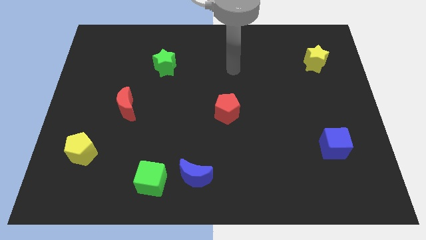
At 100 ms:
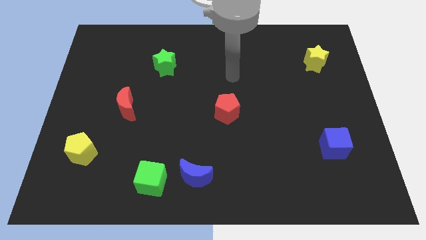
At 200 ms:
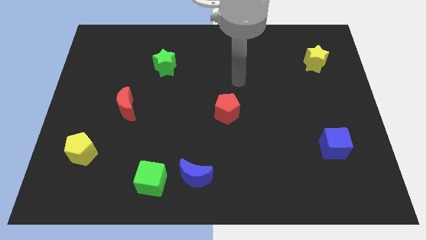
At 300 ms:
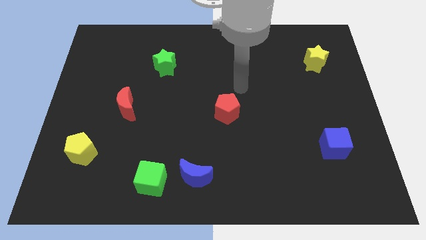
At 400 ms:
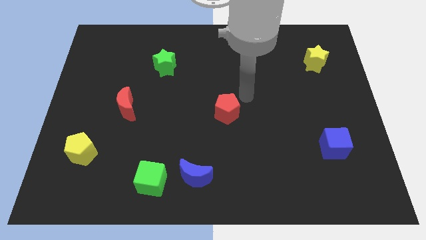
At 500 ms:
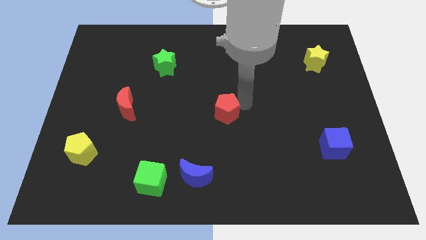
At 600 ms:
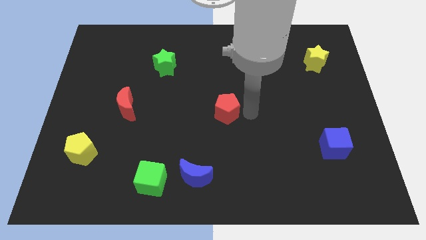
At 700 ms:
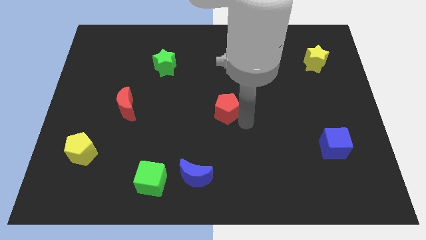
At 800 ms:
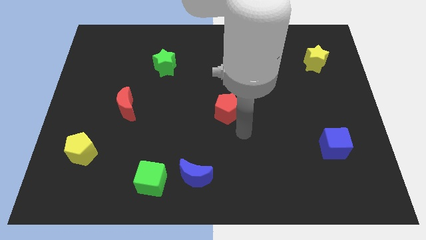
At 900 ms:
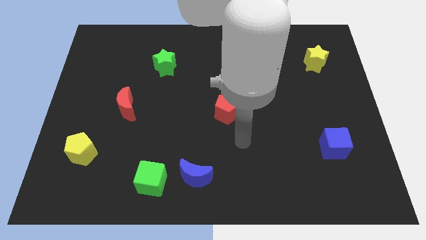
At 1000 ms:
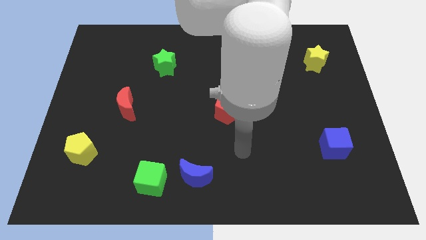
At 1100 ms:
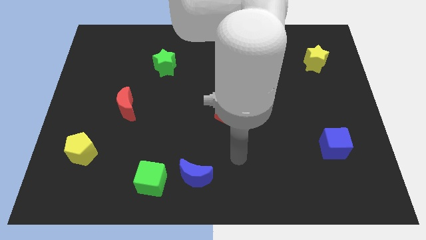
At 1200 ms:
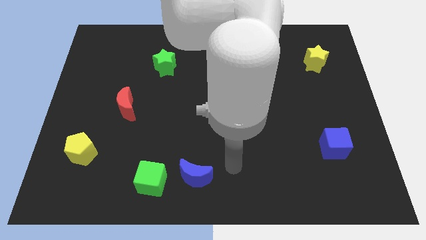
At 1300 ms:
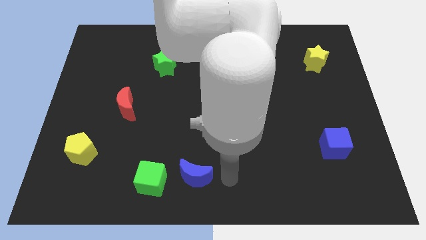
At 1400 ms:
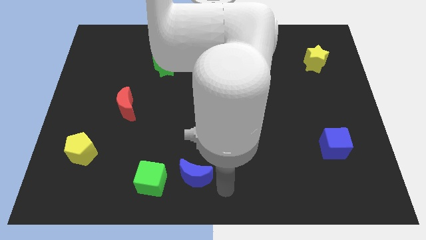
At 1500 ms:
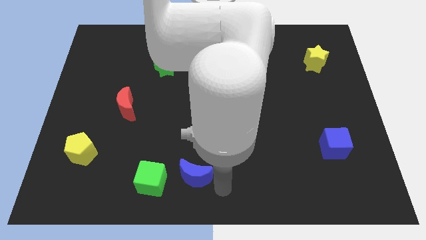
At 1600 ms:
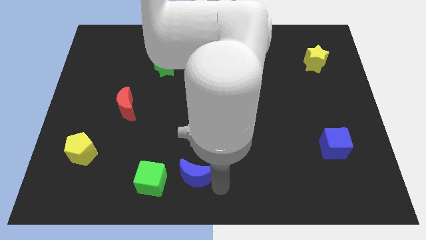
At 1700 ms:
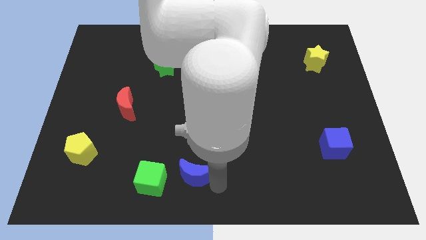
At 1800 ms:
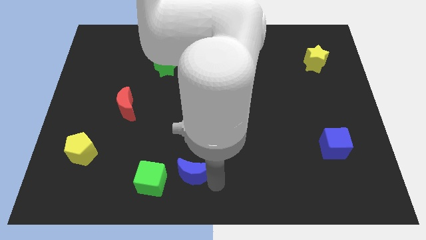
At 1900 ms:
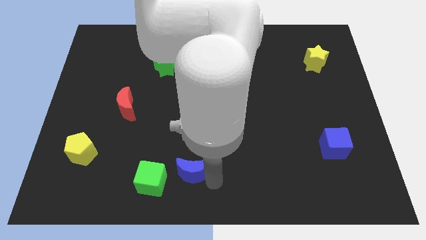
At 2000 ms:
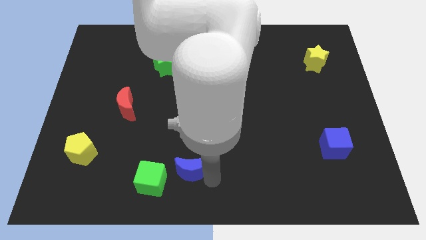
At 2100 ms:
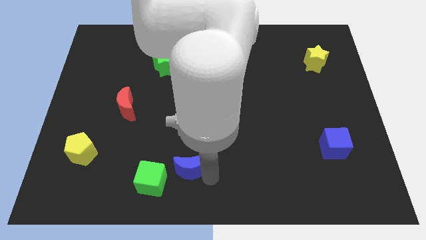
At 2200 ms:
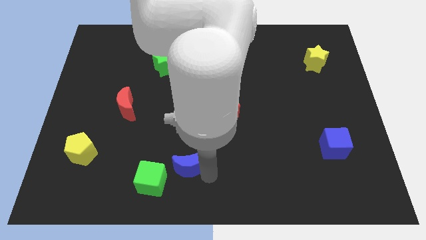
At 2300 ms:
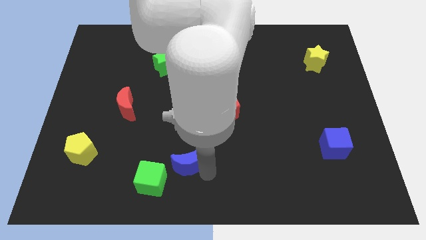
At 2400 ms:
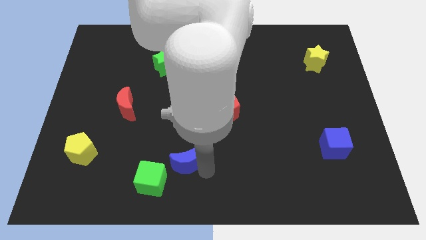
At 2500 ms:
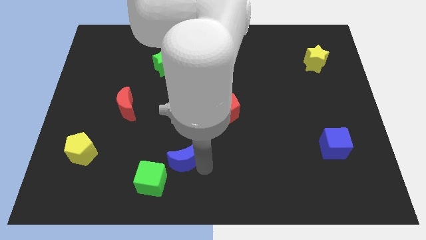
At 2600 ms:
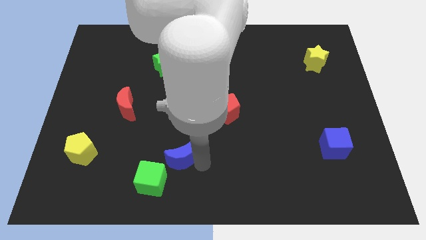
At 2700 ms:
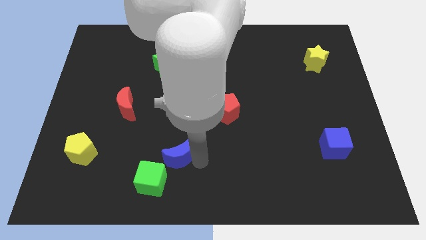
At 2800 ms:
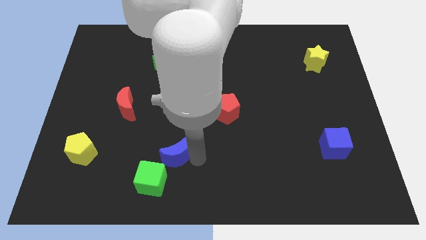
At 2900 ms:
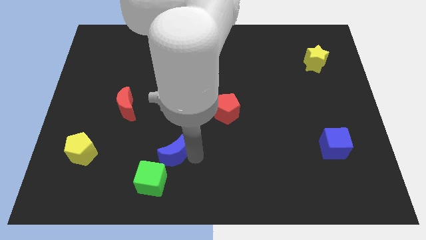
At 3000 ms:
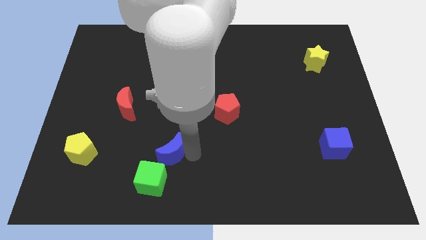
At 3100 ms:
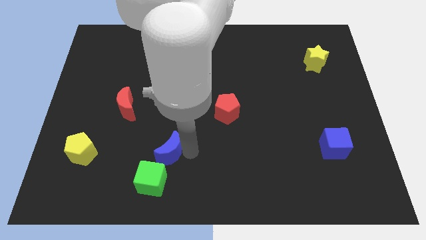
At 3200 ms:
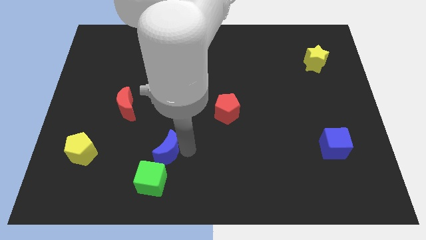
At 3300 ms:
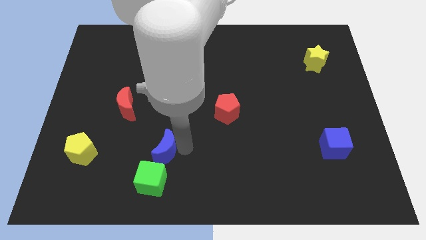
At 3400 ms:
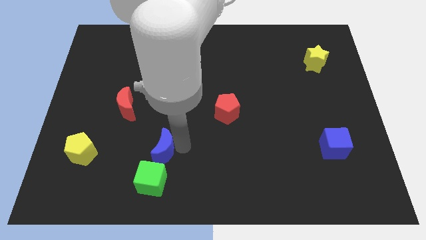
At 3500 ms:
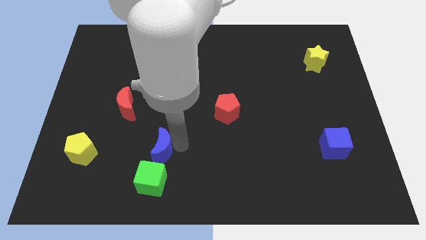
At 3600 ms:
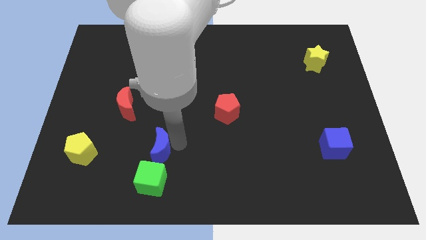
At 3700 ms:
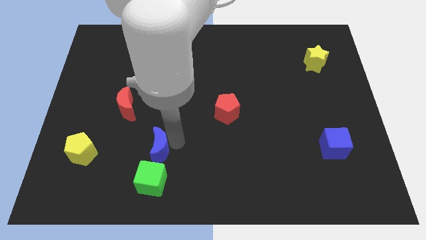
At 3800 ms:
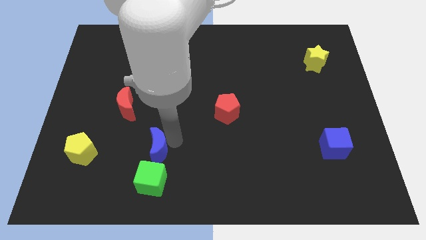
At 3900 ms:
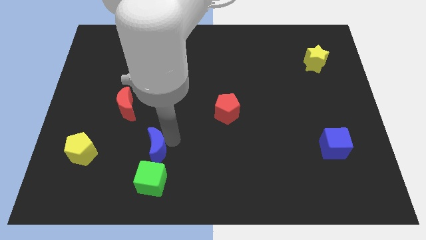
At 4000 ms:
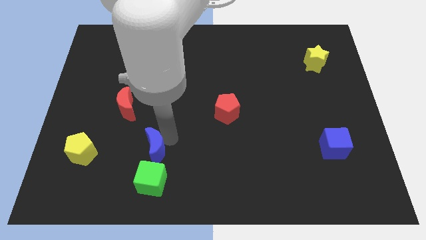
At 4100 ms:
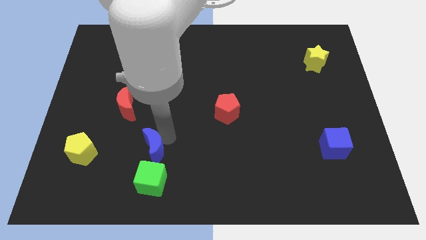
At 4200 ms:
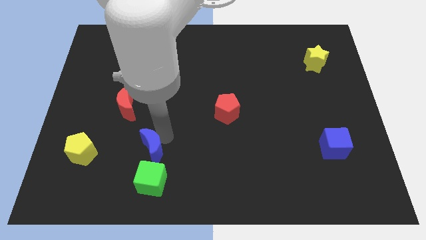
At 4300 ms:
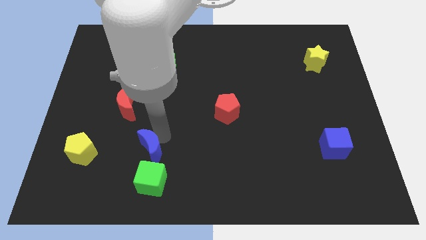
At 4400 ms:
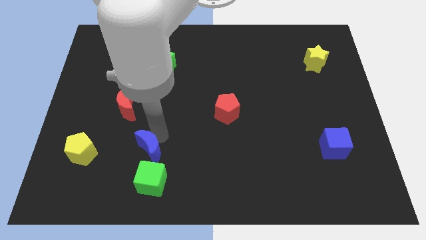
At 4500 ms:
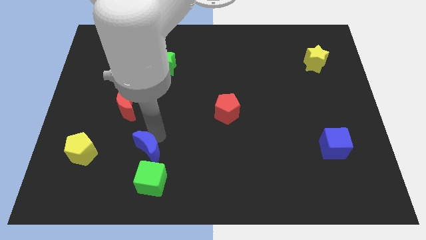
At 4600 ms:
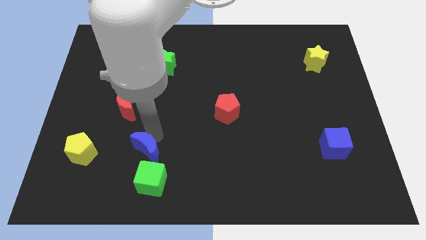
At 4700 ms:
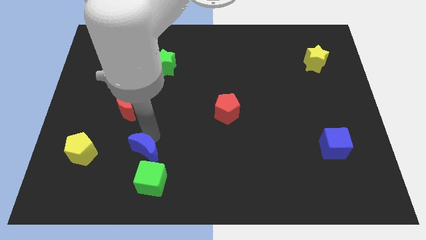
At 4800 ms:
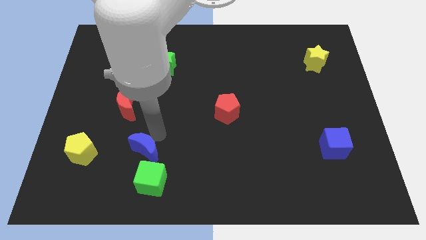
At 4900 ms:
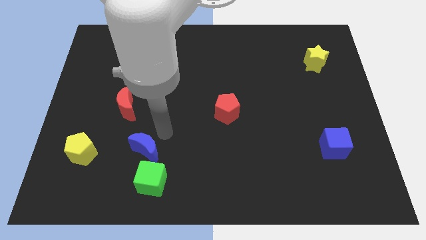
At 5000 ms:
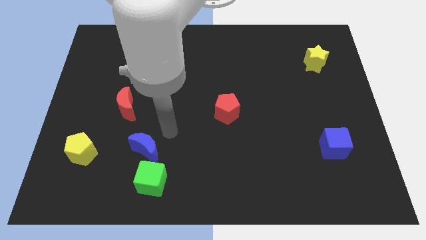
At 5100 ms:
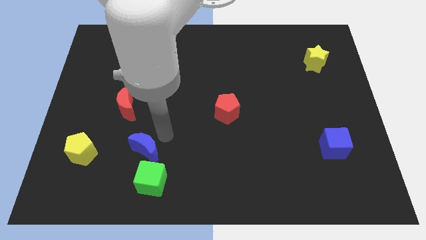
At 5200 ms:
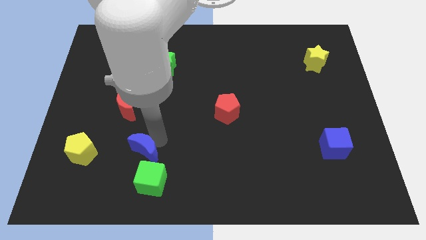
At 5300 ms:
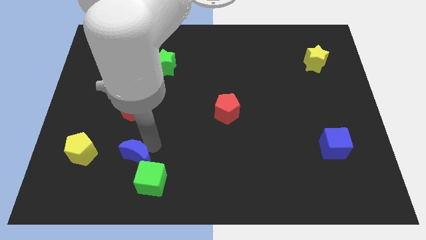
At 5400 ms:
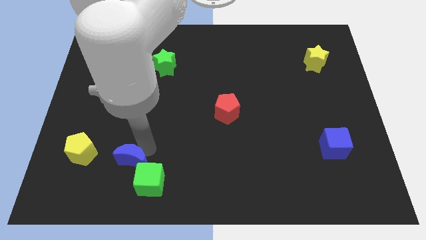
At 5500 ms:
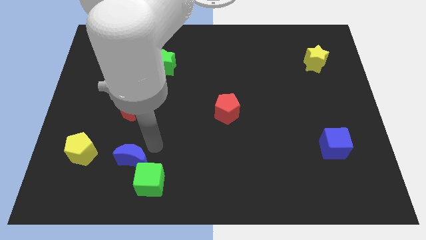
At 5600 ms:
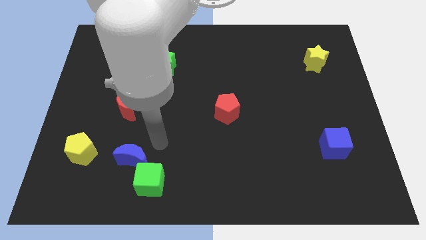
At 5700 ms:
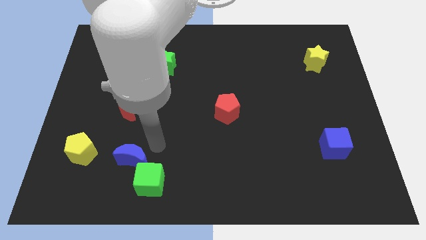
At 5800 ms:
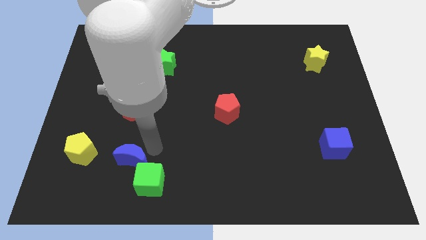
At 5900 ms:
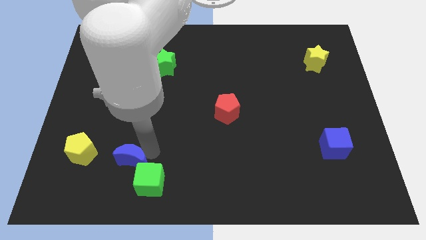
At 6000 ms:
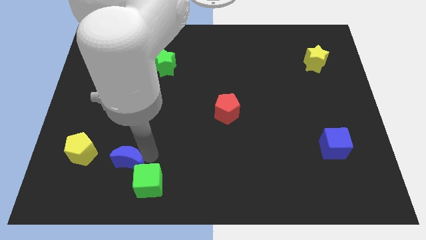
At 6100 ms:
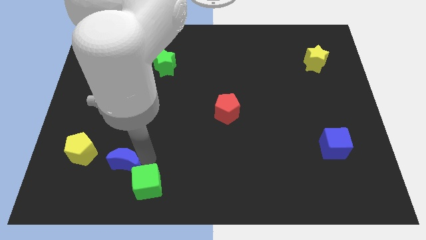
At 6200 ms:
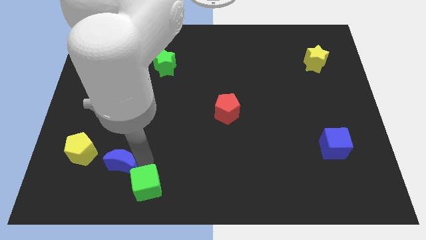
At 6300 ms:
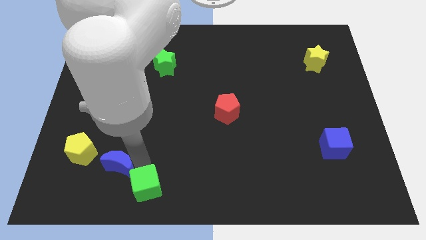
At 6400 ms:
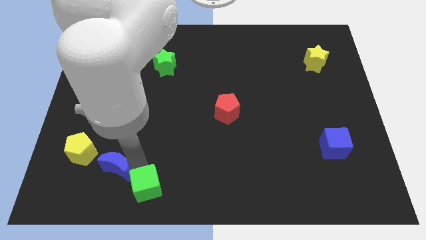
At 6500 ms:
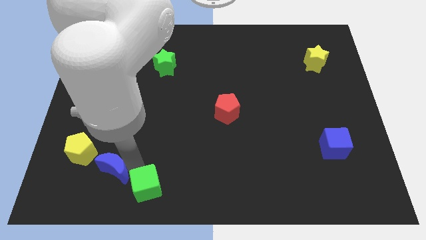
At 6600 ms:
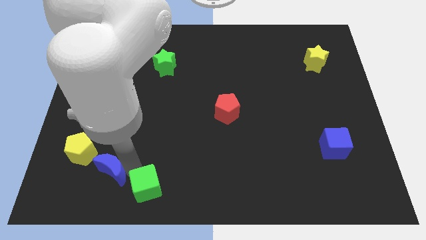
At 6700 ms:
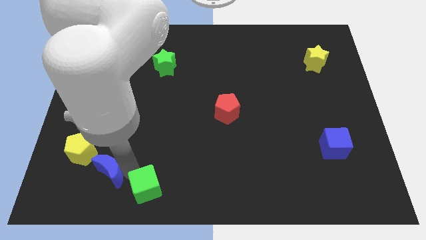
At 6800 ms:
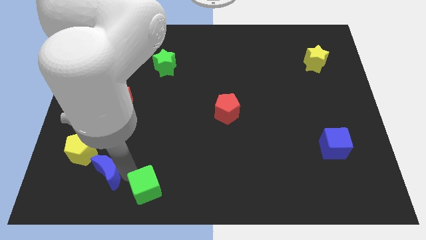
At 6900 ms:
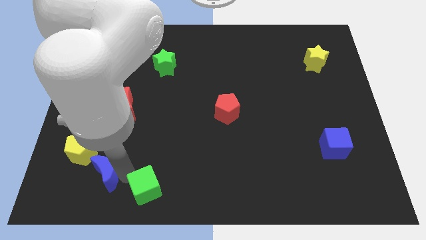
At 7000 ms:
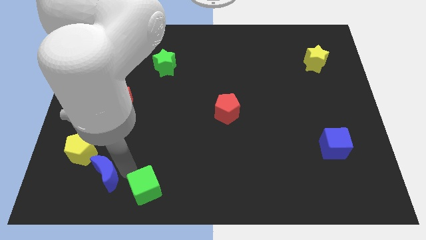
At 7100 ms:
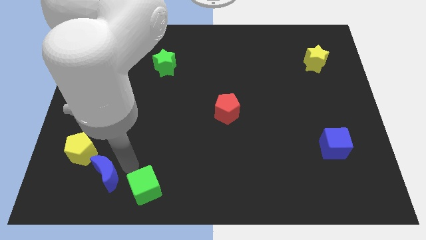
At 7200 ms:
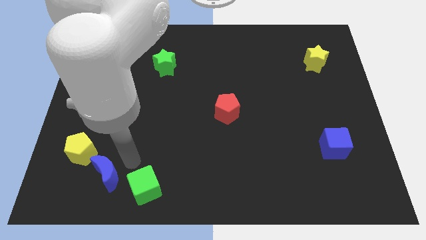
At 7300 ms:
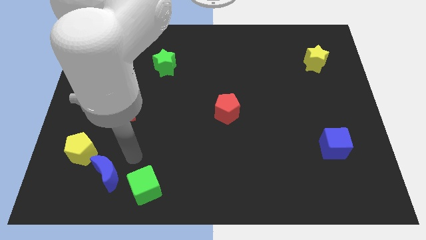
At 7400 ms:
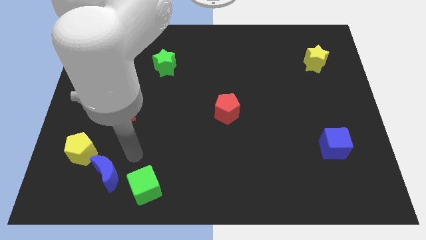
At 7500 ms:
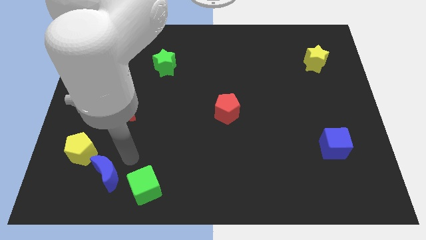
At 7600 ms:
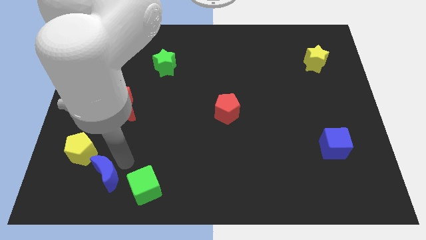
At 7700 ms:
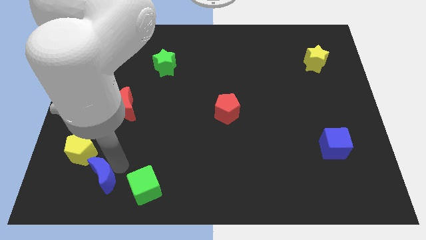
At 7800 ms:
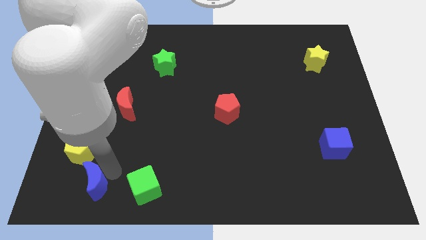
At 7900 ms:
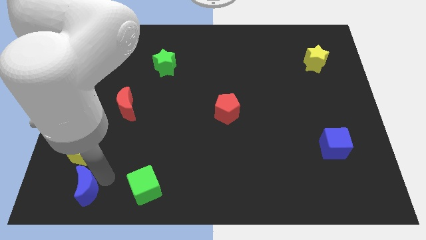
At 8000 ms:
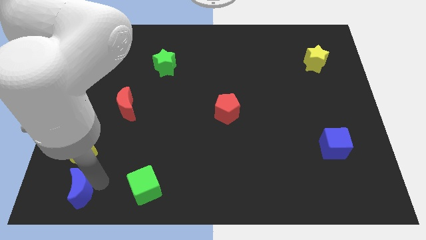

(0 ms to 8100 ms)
slide the blue moon to the bottom left
